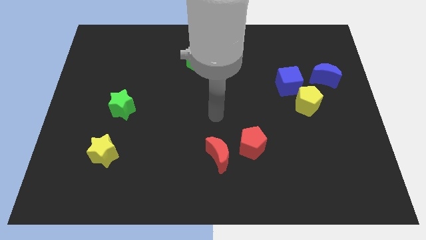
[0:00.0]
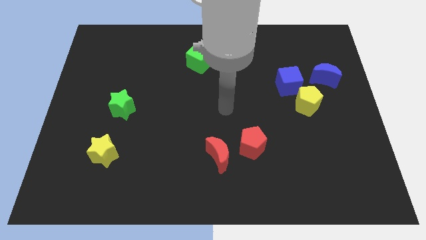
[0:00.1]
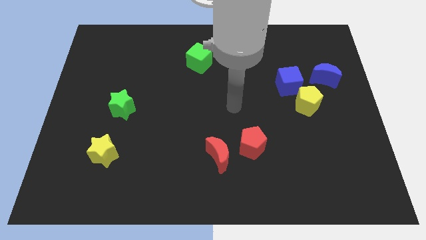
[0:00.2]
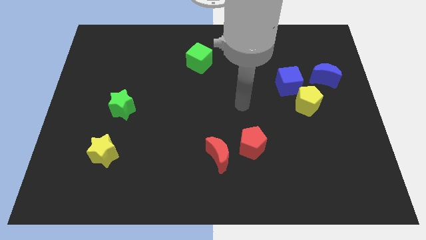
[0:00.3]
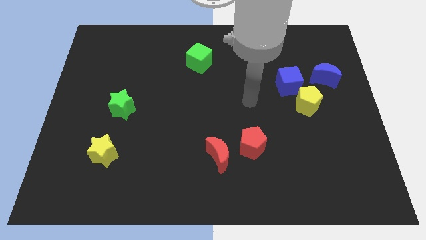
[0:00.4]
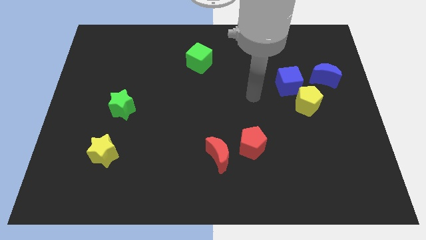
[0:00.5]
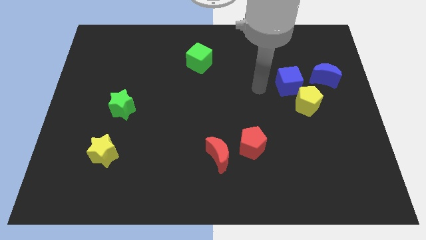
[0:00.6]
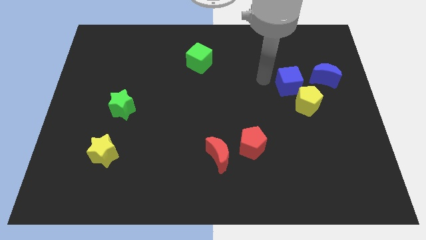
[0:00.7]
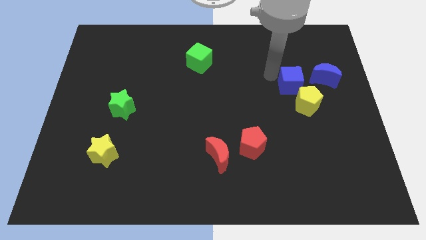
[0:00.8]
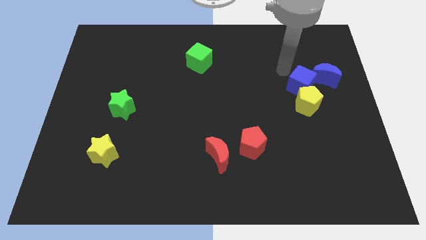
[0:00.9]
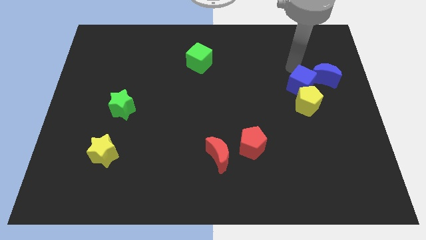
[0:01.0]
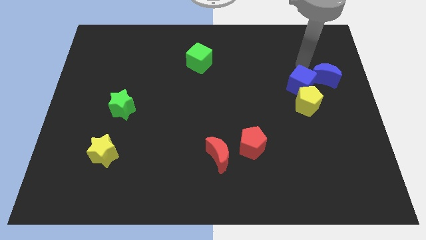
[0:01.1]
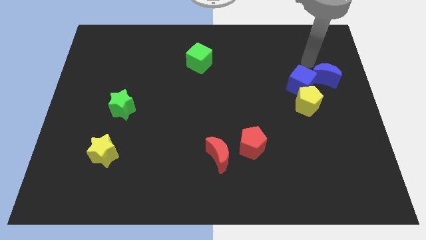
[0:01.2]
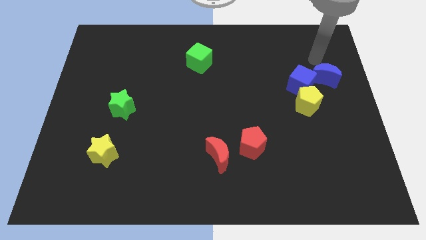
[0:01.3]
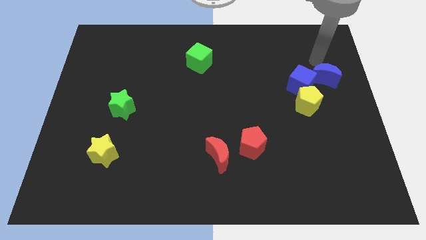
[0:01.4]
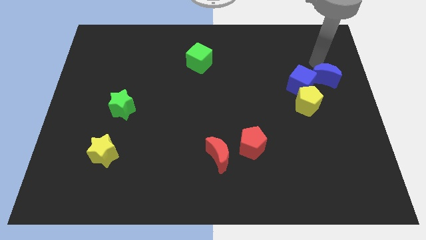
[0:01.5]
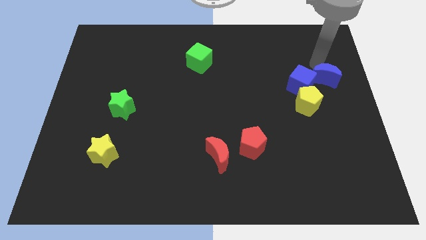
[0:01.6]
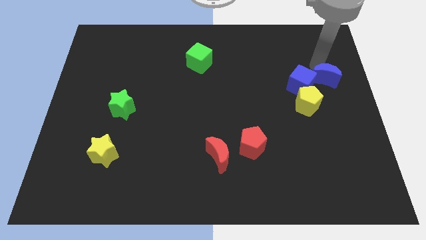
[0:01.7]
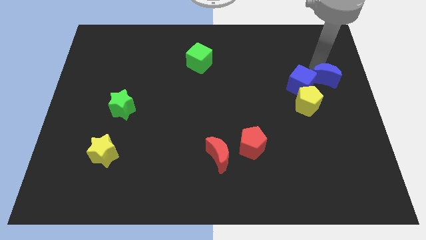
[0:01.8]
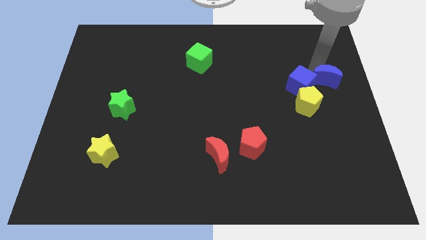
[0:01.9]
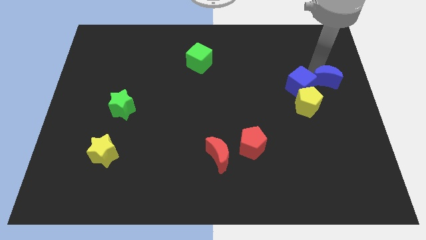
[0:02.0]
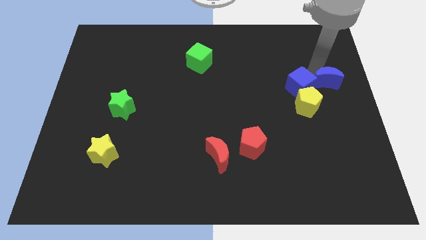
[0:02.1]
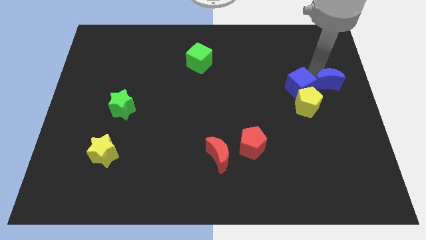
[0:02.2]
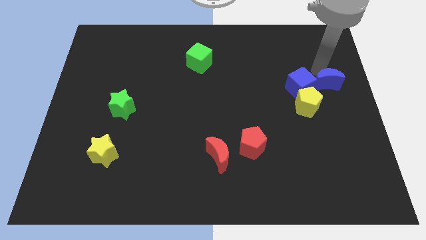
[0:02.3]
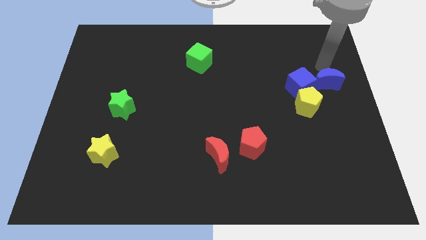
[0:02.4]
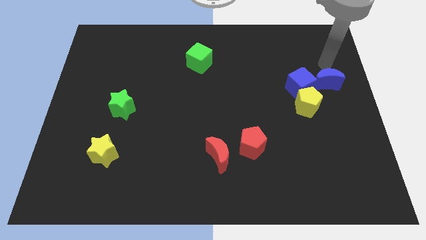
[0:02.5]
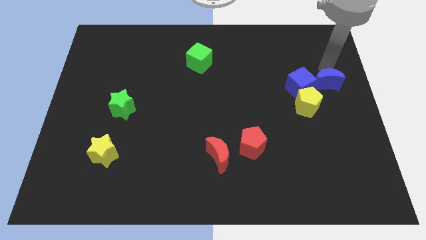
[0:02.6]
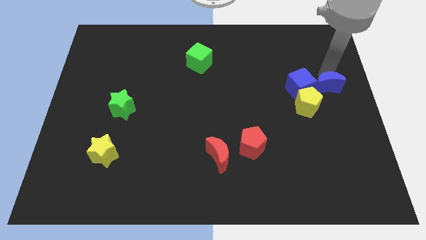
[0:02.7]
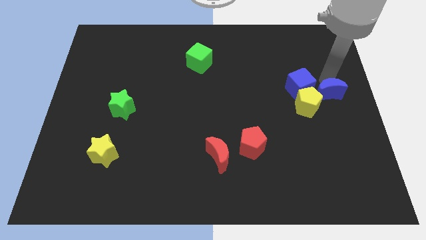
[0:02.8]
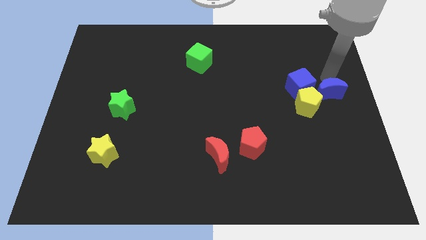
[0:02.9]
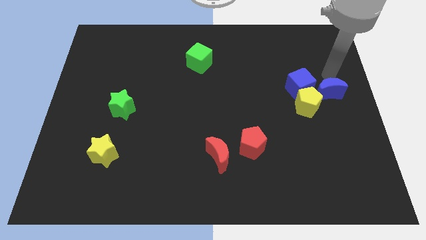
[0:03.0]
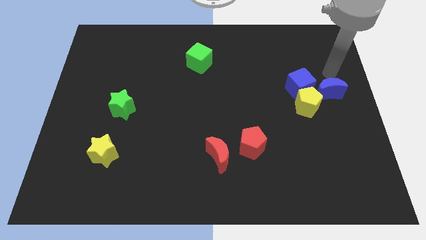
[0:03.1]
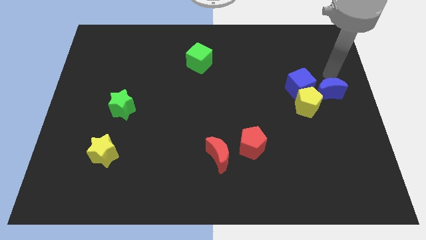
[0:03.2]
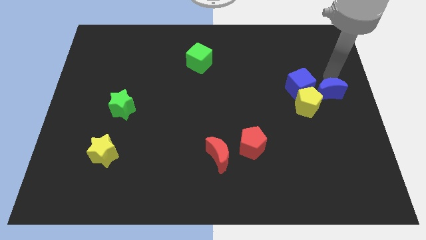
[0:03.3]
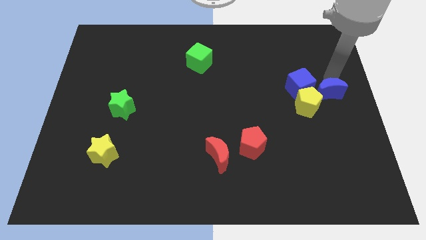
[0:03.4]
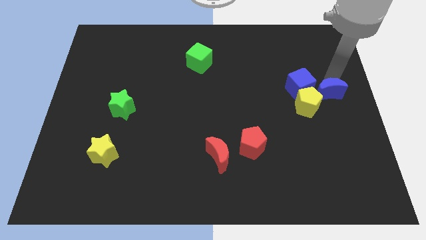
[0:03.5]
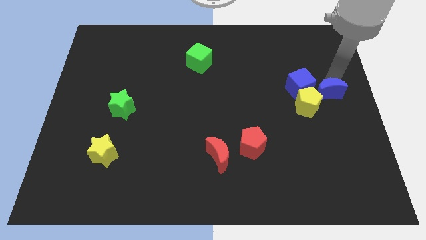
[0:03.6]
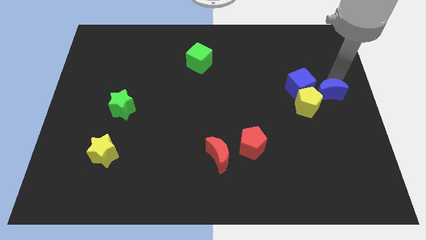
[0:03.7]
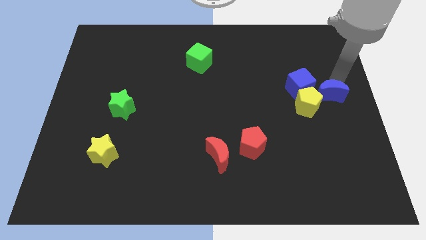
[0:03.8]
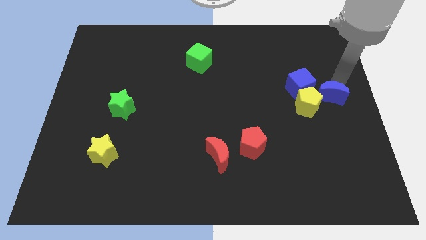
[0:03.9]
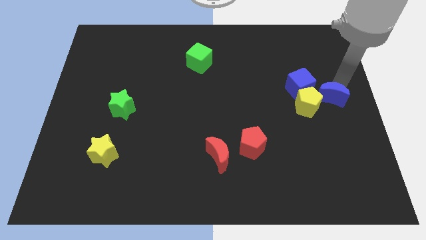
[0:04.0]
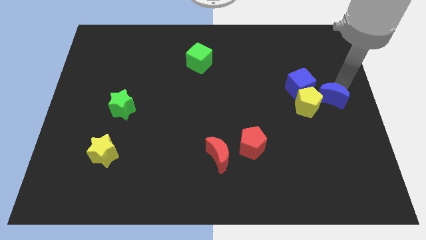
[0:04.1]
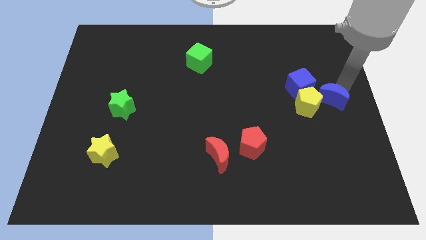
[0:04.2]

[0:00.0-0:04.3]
slide the blue moon a bit downwards

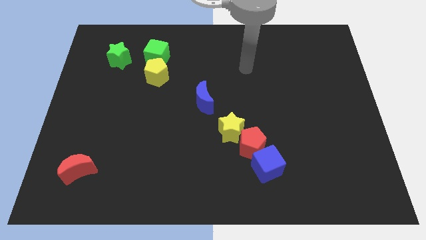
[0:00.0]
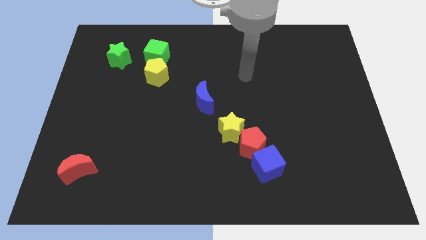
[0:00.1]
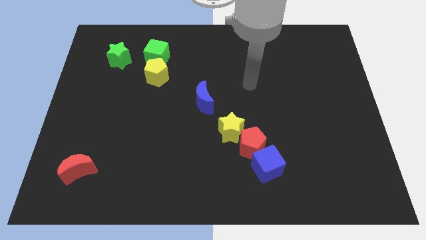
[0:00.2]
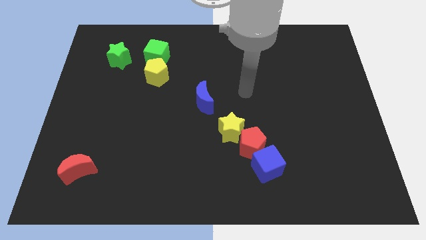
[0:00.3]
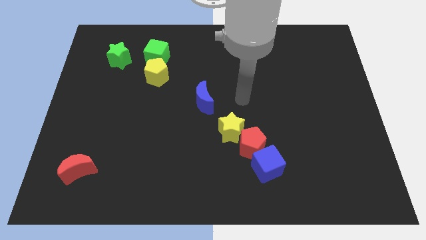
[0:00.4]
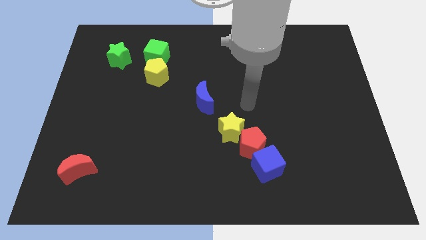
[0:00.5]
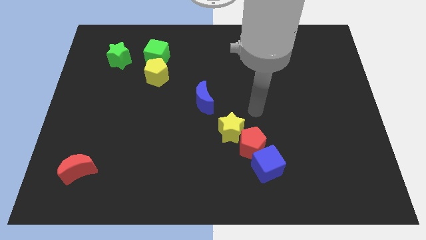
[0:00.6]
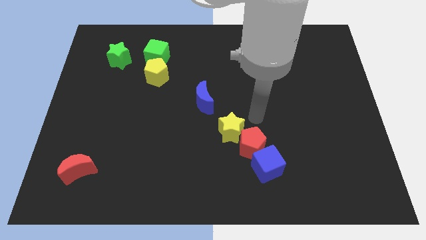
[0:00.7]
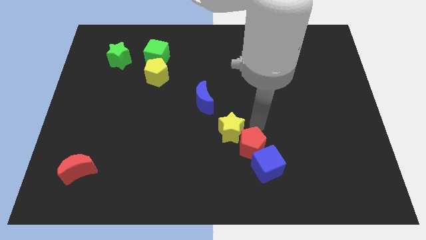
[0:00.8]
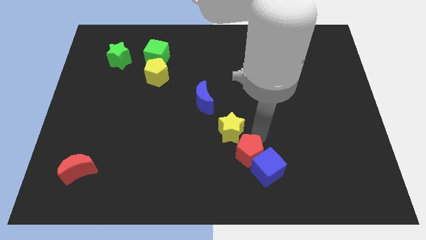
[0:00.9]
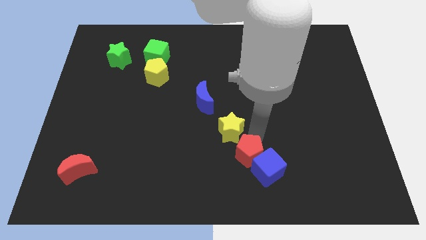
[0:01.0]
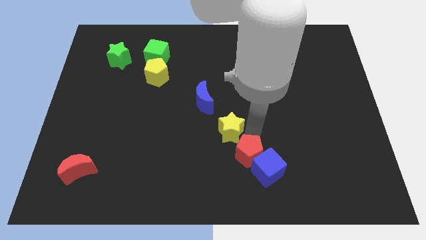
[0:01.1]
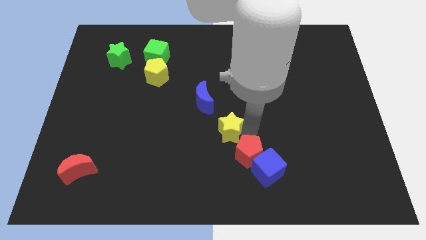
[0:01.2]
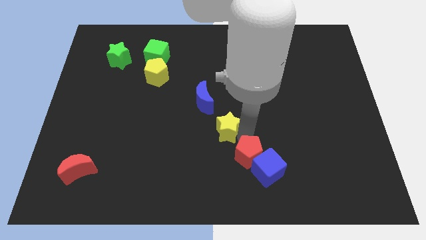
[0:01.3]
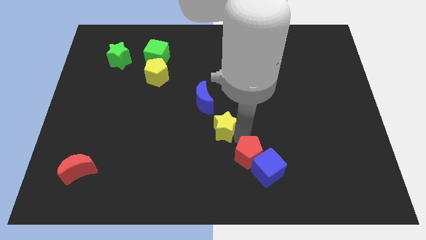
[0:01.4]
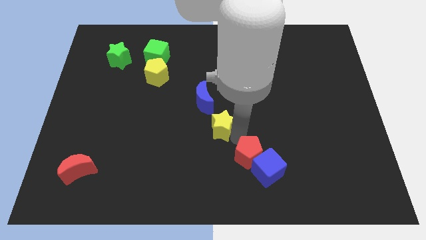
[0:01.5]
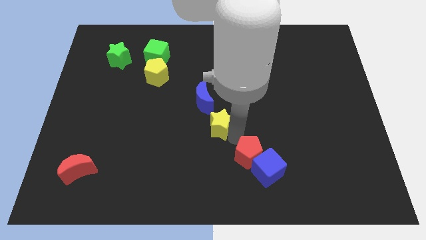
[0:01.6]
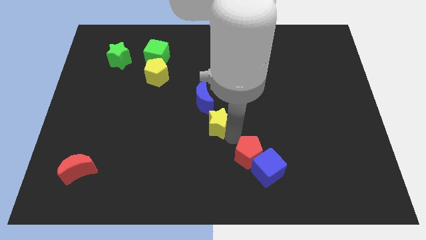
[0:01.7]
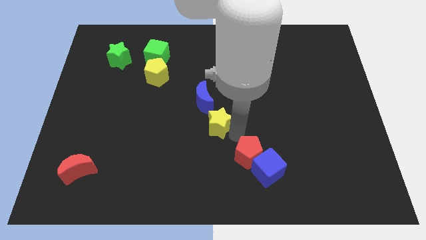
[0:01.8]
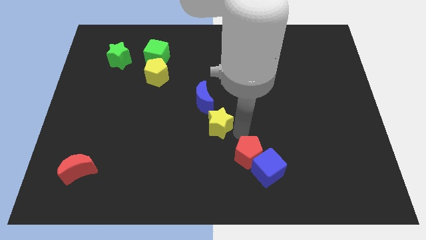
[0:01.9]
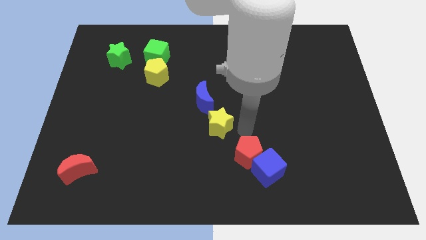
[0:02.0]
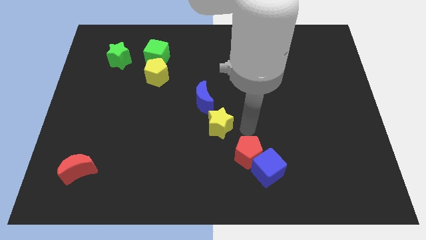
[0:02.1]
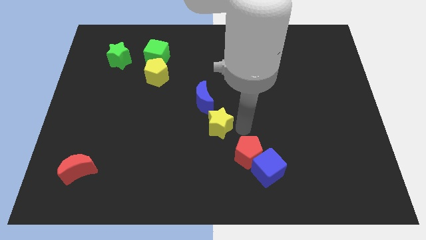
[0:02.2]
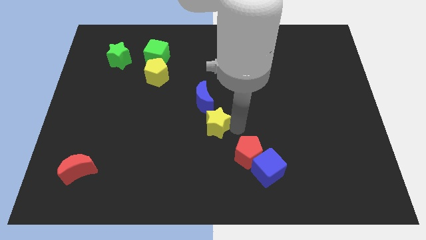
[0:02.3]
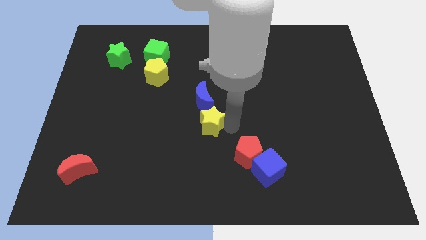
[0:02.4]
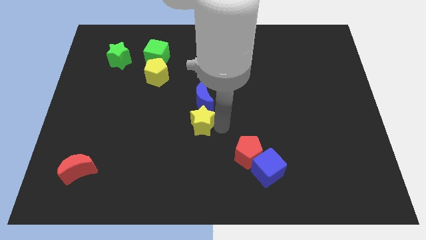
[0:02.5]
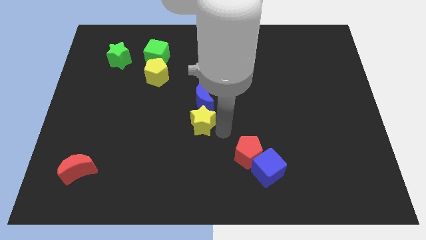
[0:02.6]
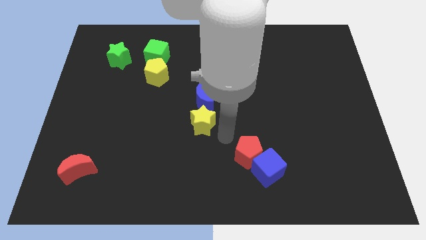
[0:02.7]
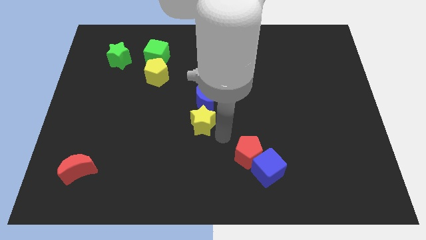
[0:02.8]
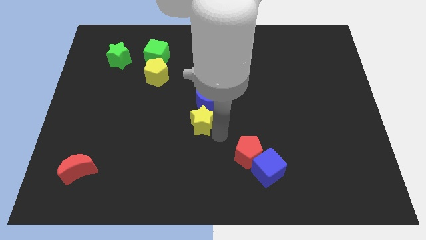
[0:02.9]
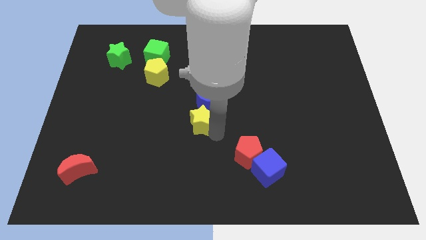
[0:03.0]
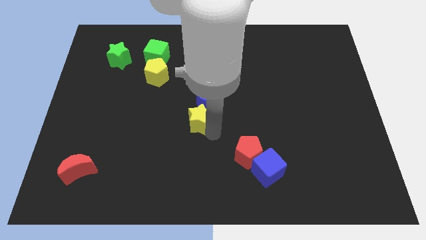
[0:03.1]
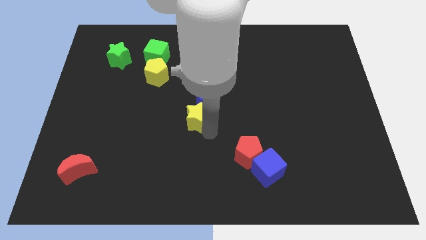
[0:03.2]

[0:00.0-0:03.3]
move the yellow star up and to the left somewhat

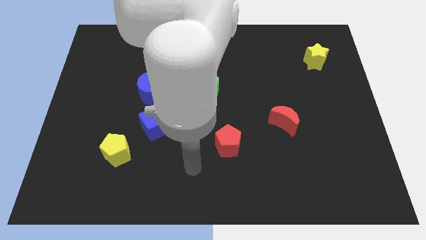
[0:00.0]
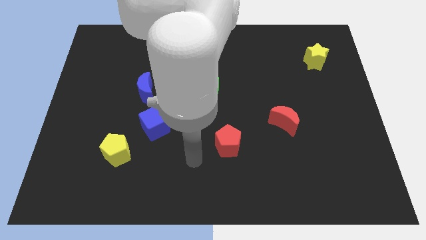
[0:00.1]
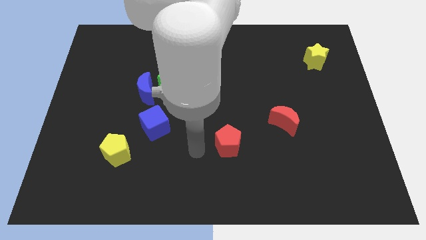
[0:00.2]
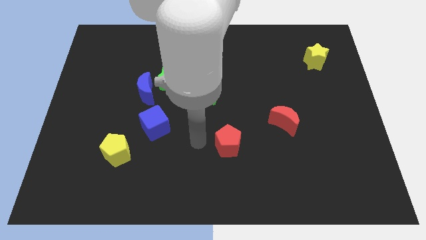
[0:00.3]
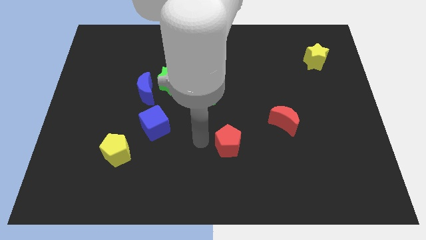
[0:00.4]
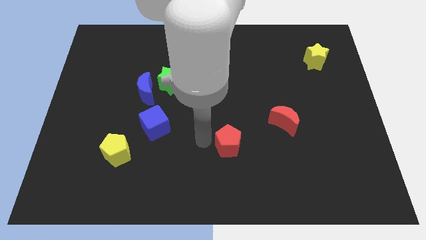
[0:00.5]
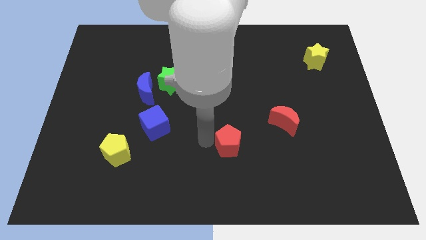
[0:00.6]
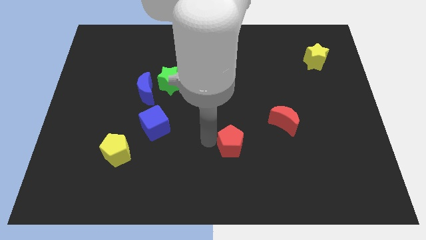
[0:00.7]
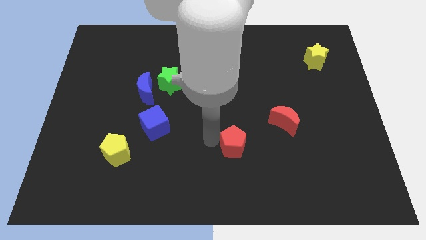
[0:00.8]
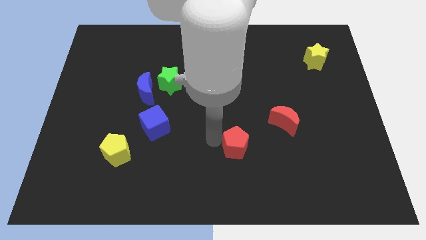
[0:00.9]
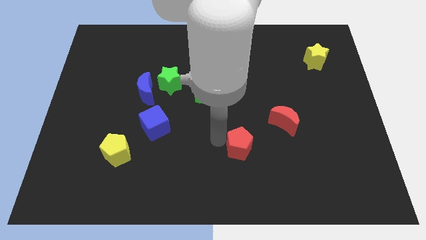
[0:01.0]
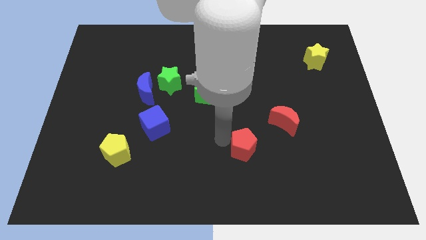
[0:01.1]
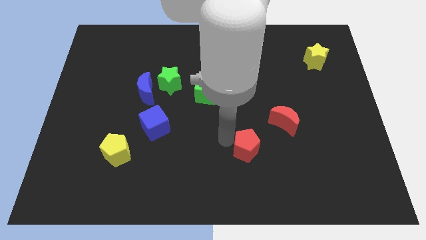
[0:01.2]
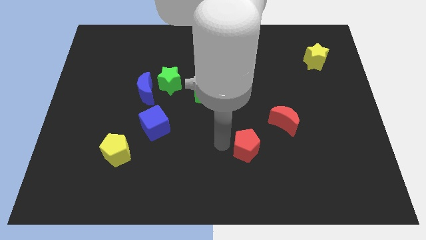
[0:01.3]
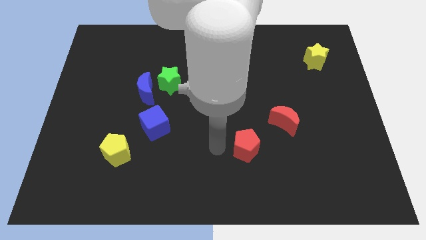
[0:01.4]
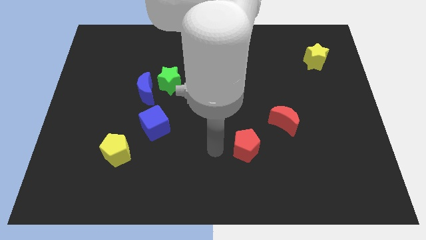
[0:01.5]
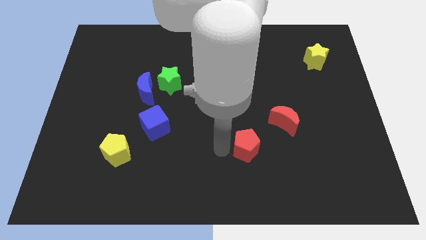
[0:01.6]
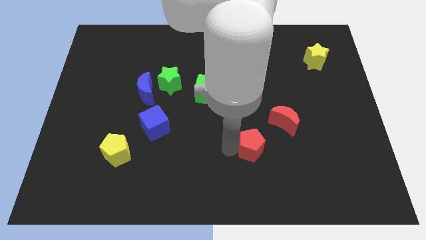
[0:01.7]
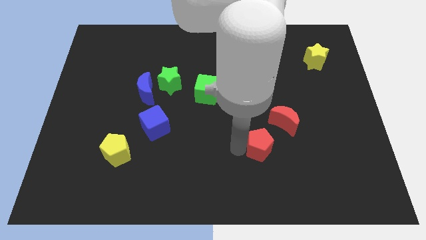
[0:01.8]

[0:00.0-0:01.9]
slide the red pentagon a little right
